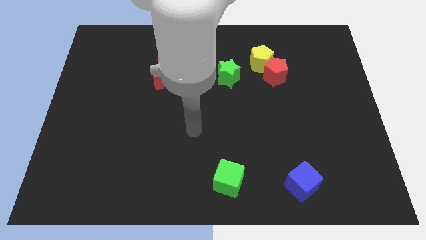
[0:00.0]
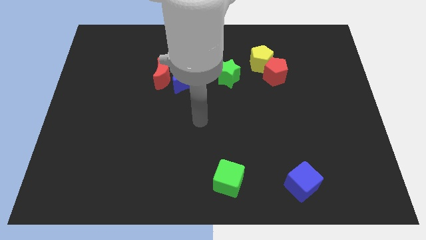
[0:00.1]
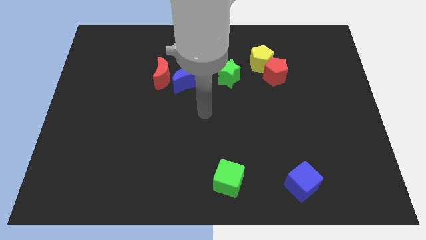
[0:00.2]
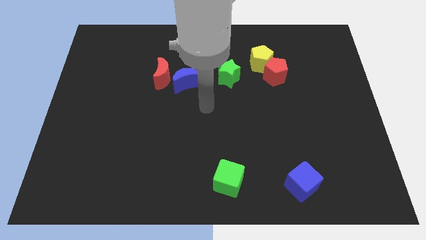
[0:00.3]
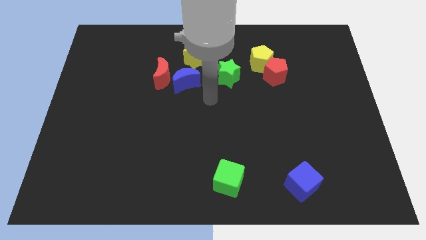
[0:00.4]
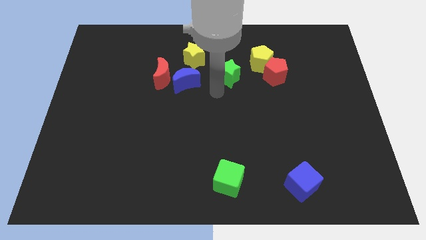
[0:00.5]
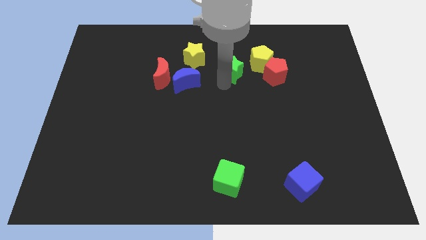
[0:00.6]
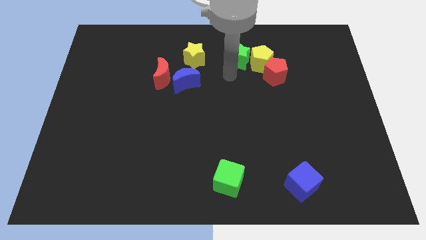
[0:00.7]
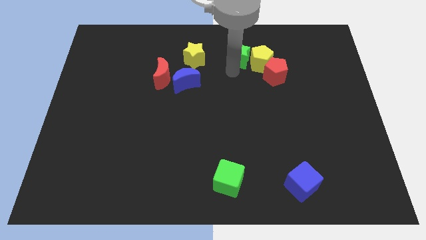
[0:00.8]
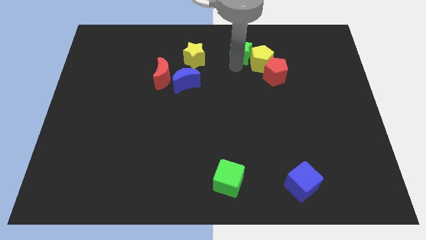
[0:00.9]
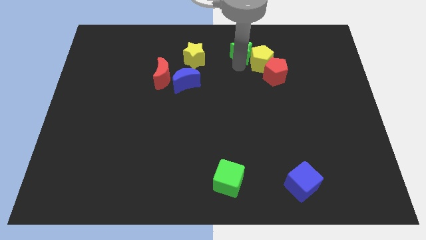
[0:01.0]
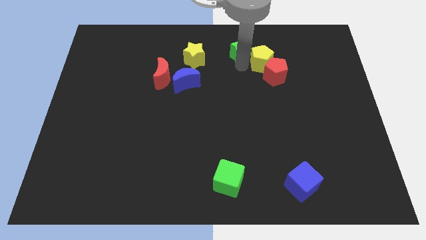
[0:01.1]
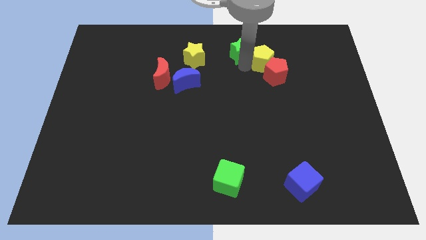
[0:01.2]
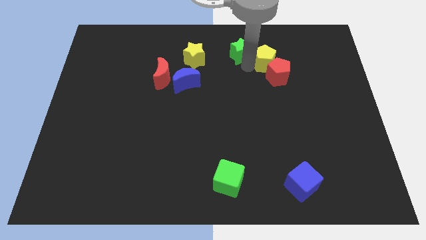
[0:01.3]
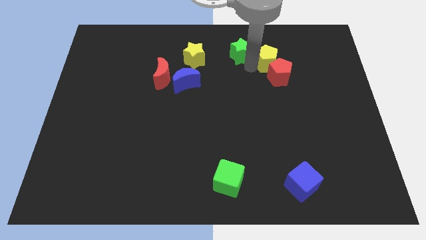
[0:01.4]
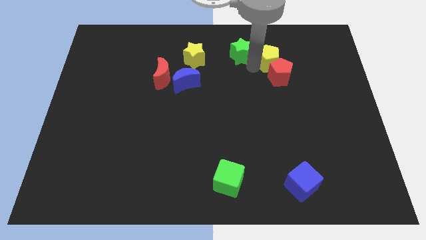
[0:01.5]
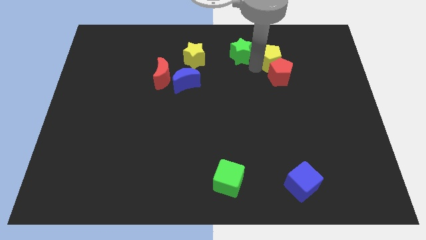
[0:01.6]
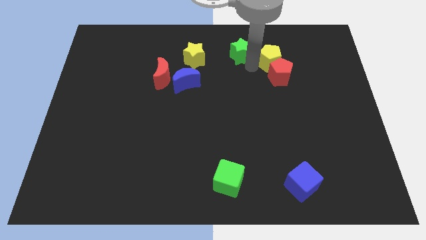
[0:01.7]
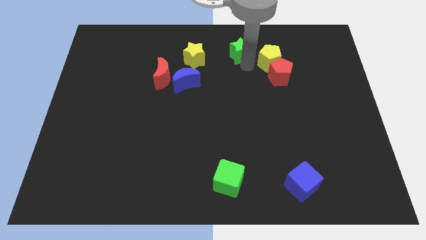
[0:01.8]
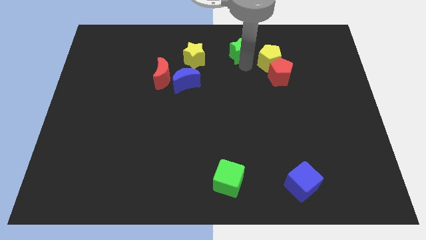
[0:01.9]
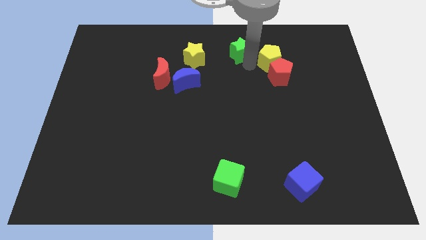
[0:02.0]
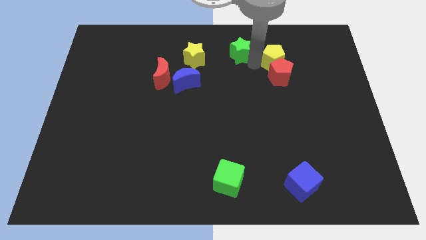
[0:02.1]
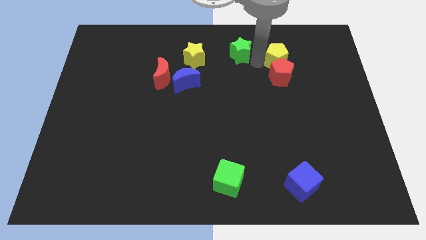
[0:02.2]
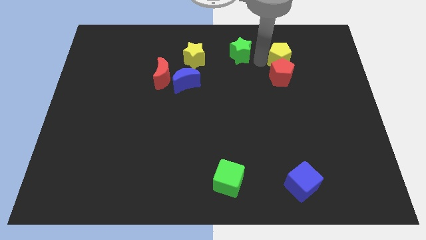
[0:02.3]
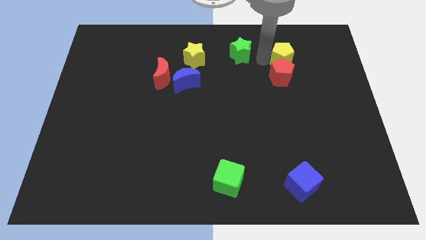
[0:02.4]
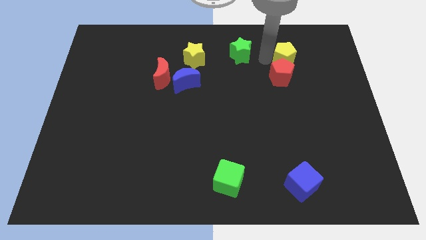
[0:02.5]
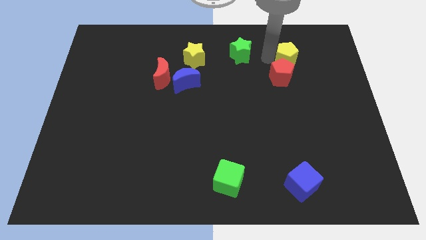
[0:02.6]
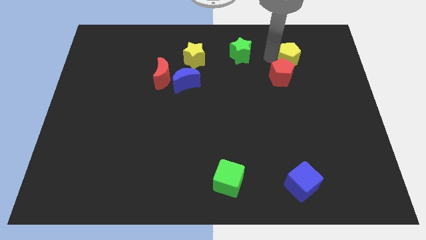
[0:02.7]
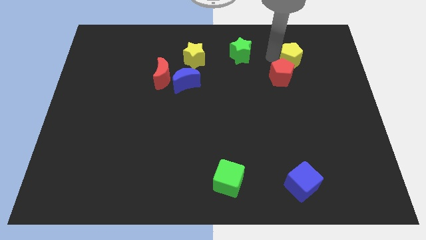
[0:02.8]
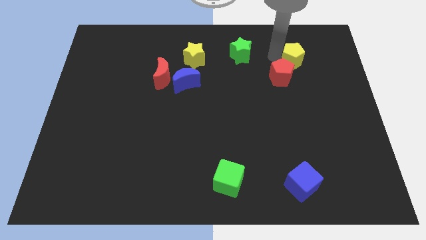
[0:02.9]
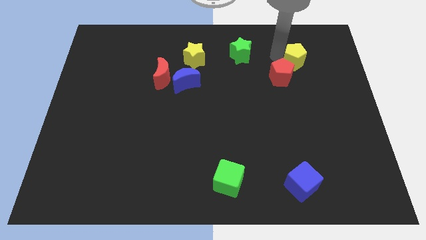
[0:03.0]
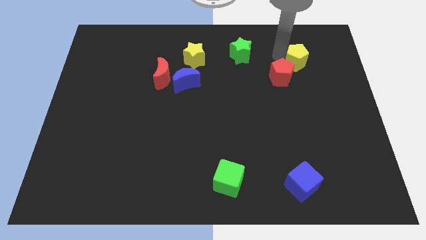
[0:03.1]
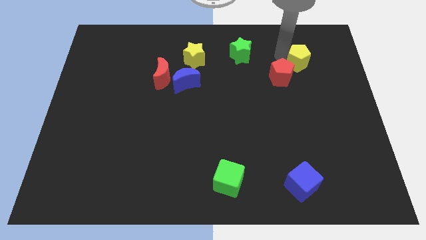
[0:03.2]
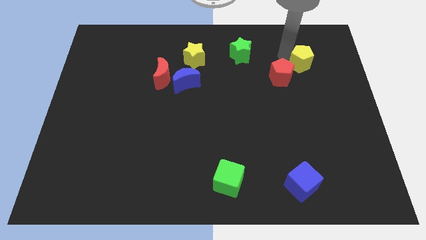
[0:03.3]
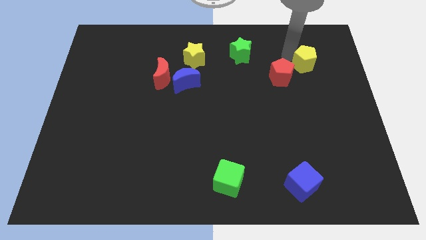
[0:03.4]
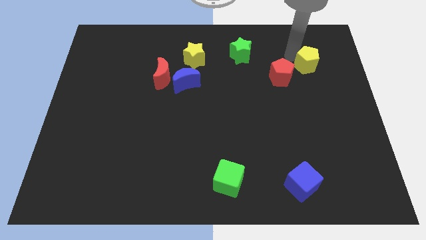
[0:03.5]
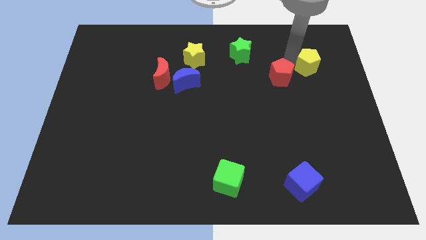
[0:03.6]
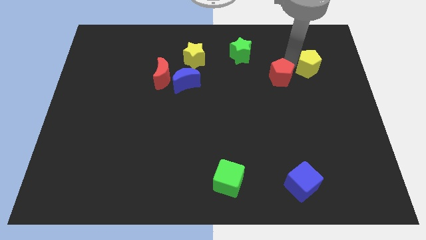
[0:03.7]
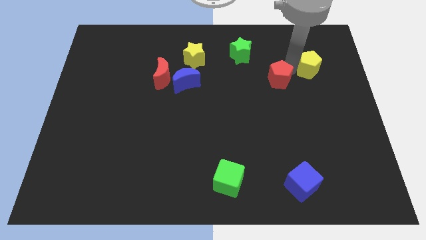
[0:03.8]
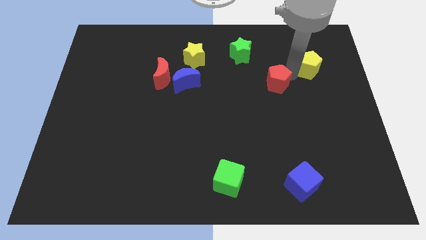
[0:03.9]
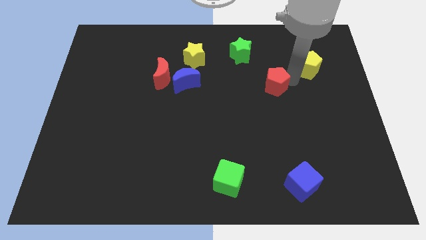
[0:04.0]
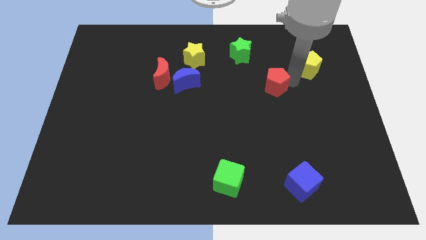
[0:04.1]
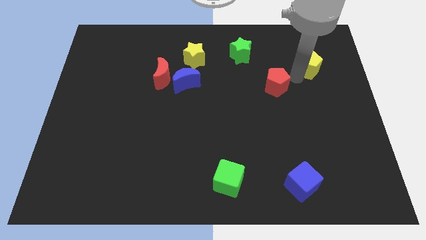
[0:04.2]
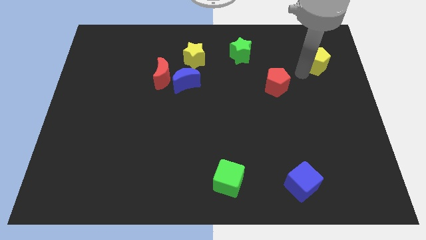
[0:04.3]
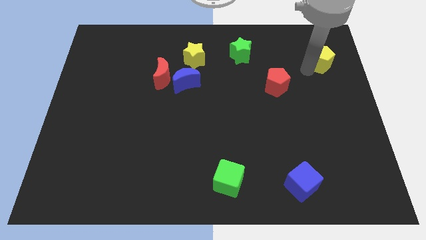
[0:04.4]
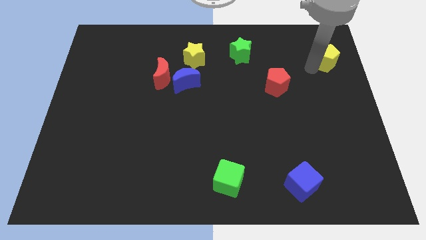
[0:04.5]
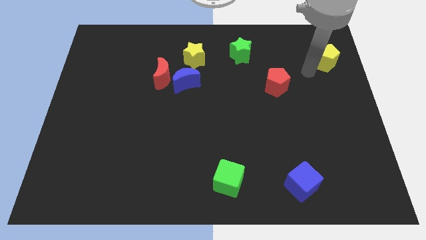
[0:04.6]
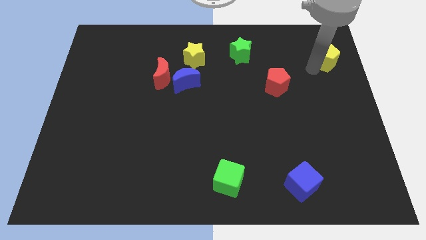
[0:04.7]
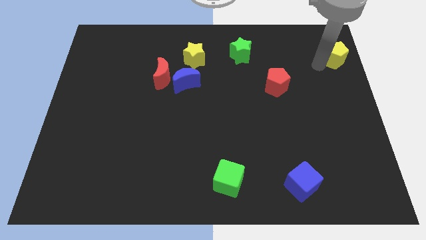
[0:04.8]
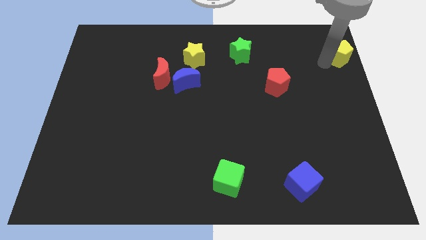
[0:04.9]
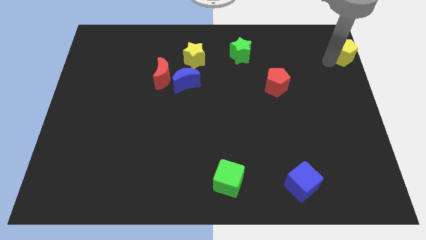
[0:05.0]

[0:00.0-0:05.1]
slide the yellow pentagon to the upper right corner

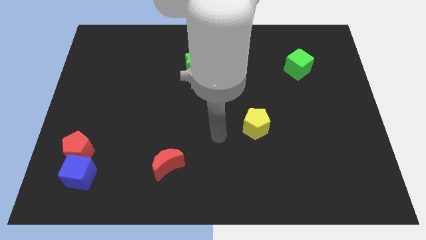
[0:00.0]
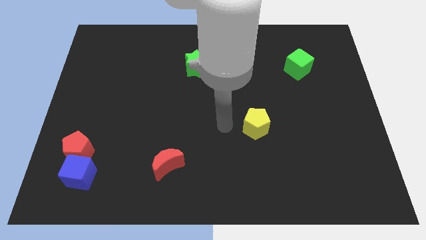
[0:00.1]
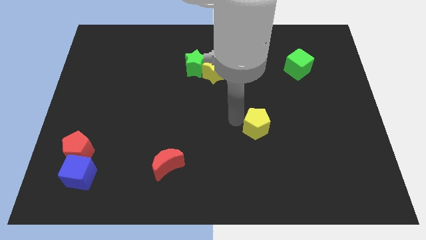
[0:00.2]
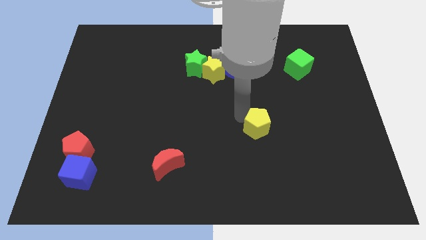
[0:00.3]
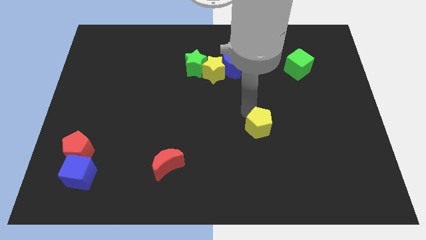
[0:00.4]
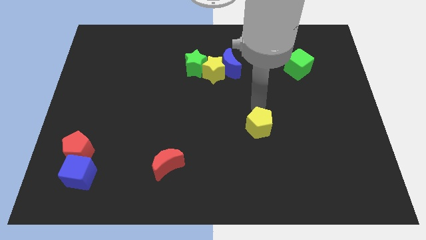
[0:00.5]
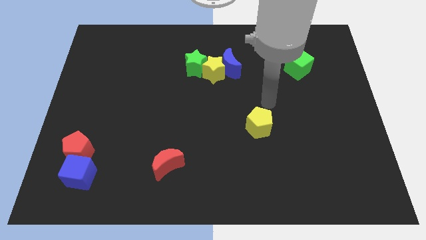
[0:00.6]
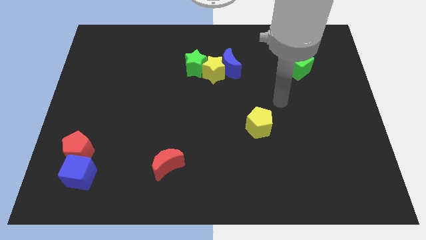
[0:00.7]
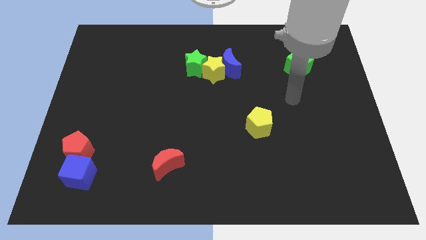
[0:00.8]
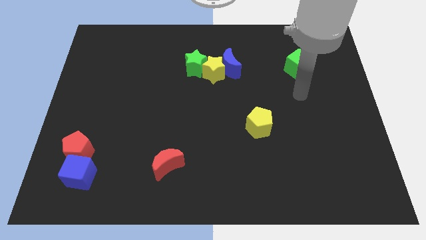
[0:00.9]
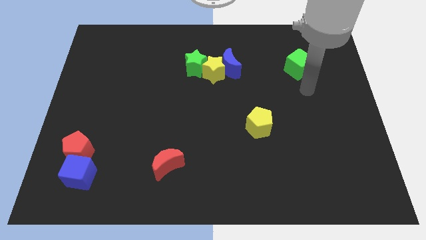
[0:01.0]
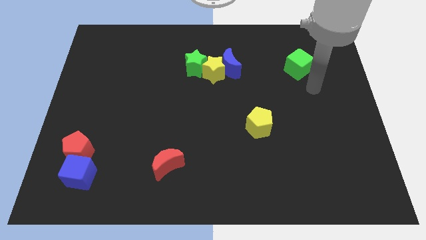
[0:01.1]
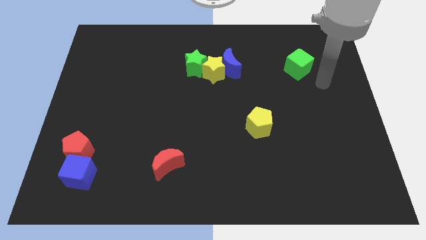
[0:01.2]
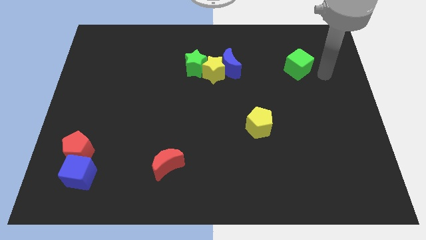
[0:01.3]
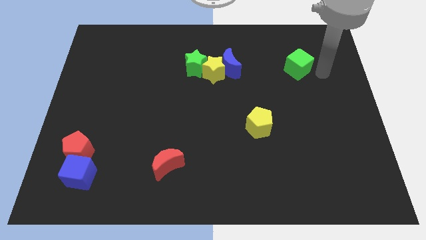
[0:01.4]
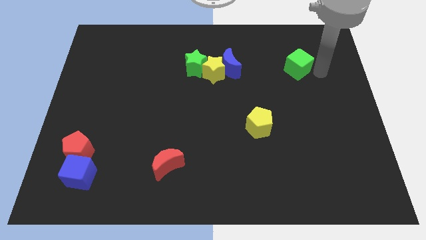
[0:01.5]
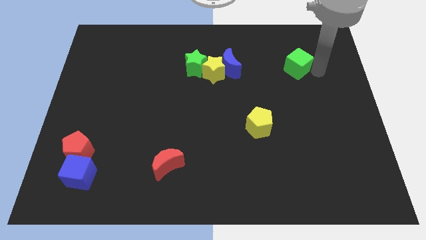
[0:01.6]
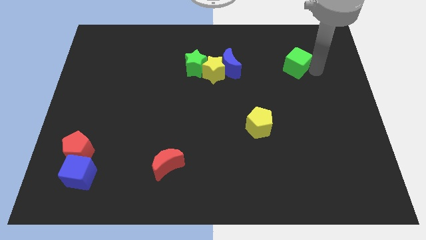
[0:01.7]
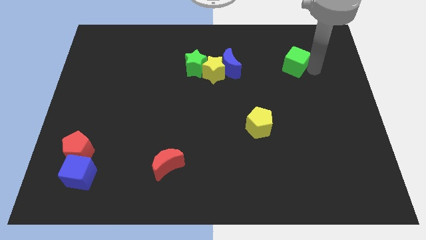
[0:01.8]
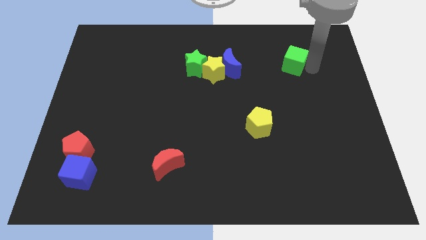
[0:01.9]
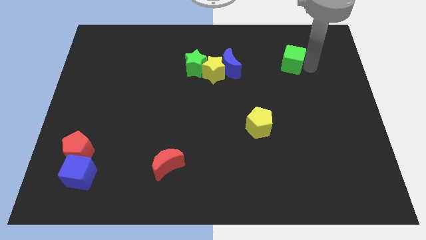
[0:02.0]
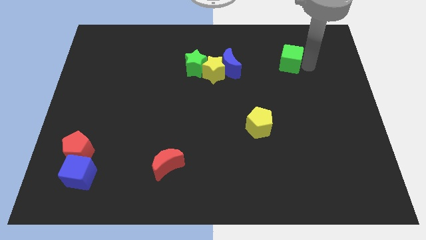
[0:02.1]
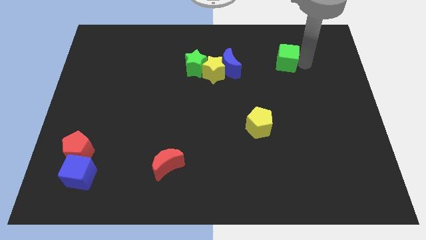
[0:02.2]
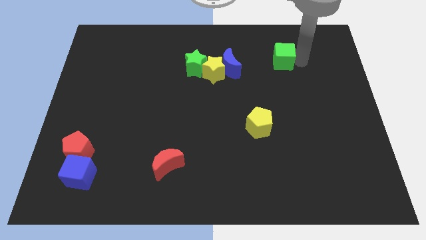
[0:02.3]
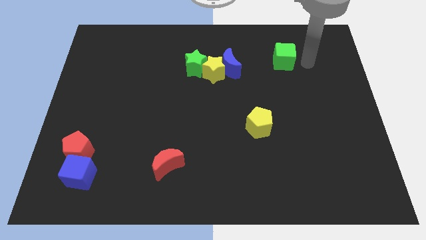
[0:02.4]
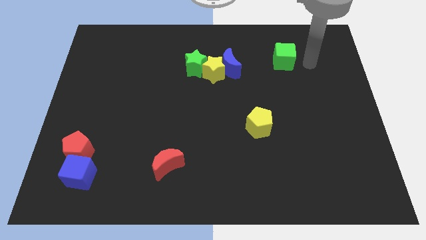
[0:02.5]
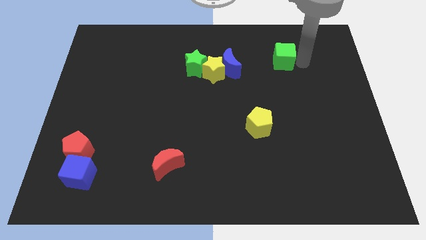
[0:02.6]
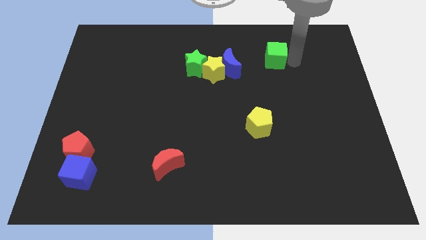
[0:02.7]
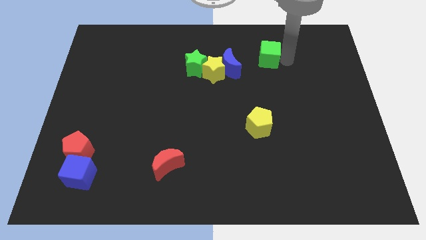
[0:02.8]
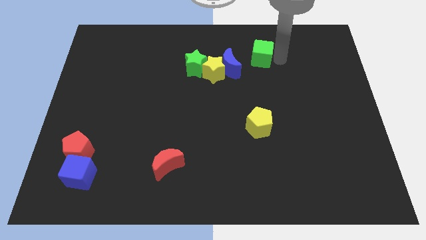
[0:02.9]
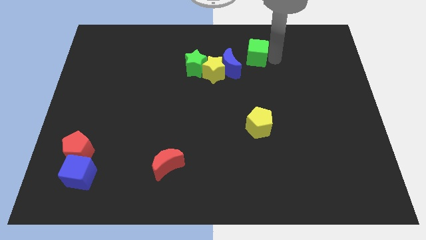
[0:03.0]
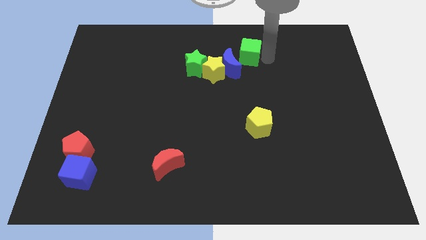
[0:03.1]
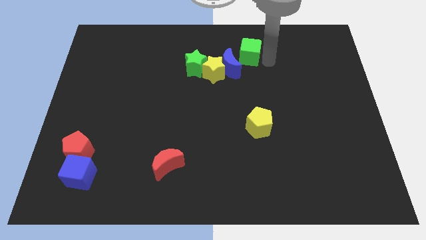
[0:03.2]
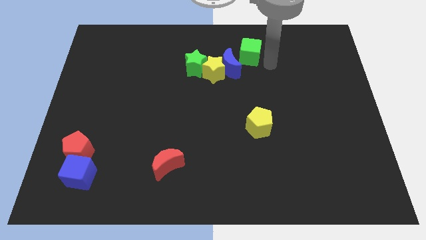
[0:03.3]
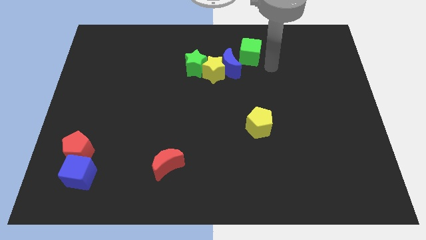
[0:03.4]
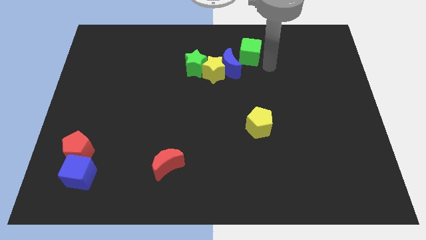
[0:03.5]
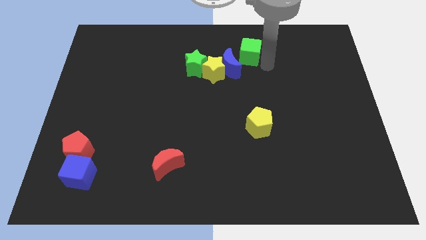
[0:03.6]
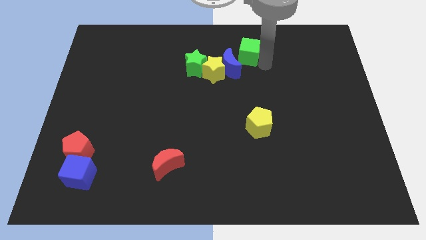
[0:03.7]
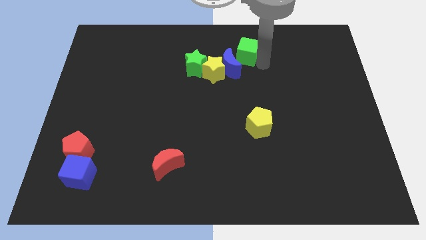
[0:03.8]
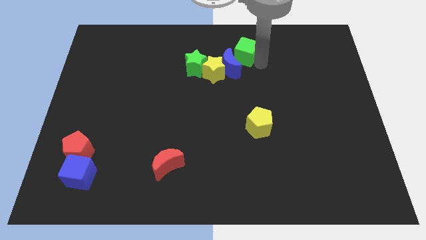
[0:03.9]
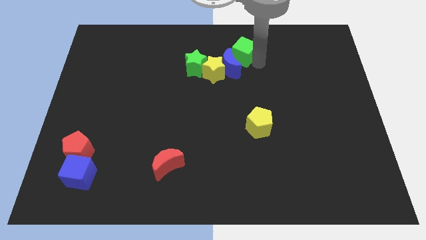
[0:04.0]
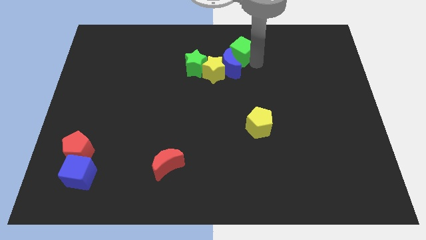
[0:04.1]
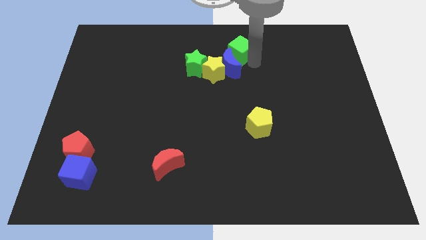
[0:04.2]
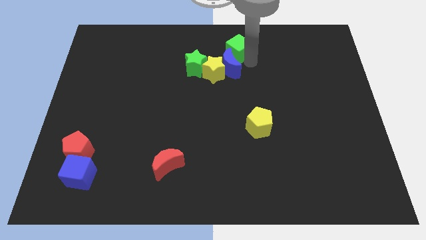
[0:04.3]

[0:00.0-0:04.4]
put the green cube to the top
